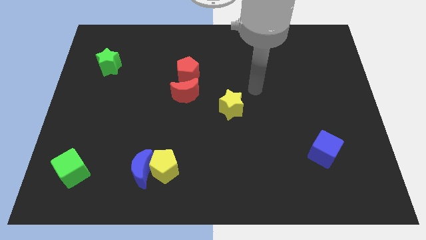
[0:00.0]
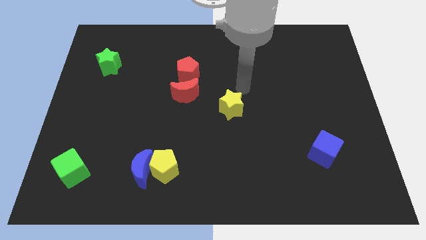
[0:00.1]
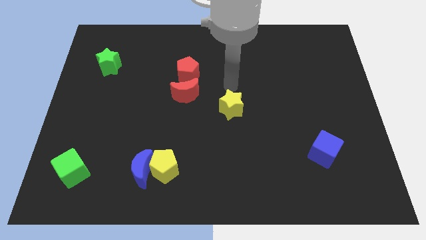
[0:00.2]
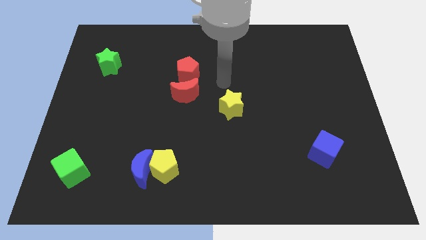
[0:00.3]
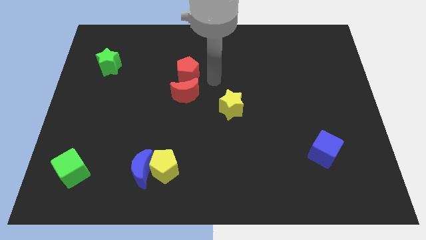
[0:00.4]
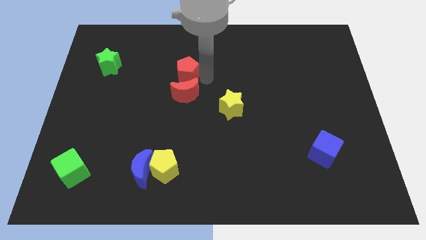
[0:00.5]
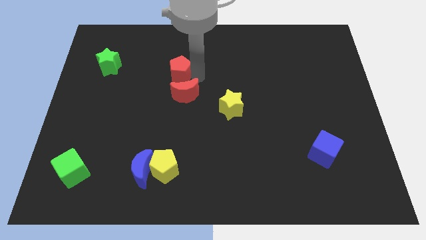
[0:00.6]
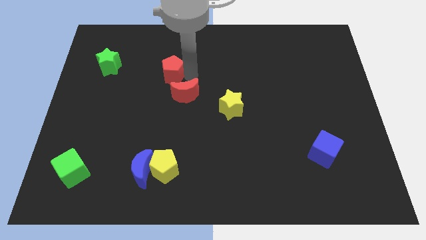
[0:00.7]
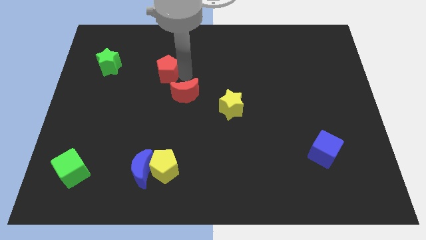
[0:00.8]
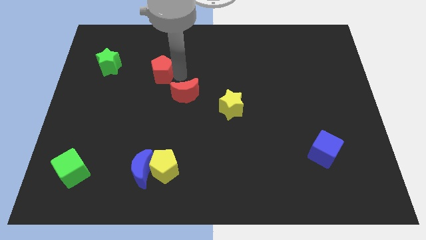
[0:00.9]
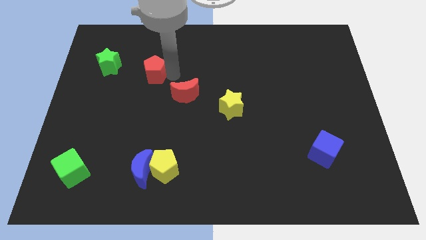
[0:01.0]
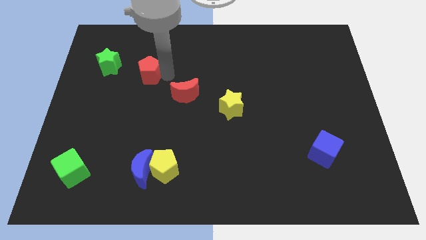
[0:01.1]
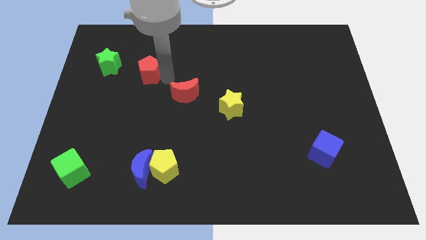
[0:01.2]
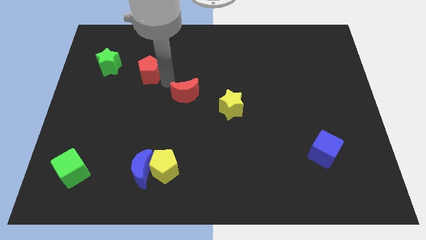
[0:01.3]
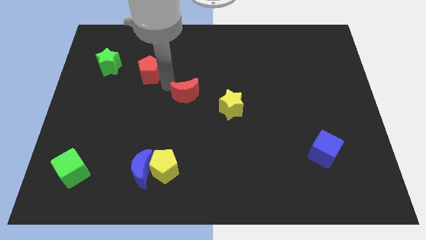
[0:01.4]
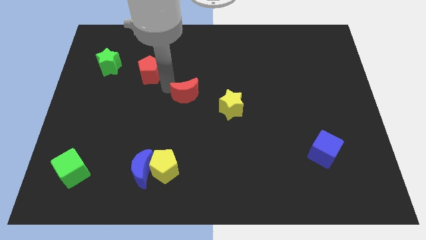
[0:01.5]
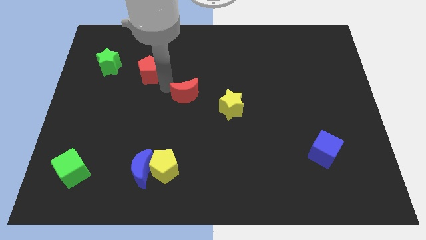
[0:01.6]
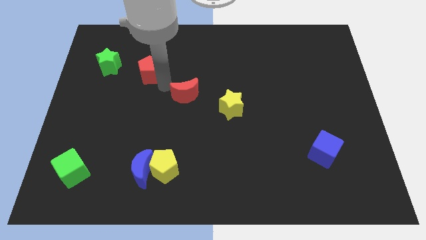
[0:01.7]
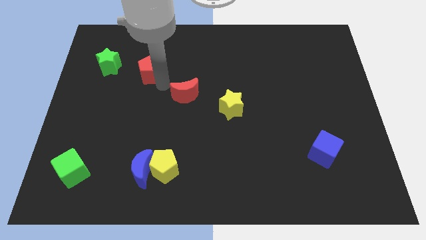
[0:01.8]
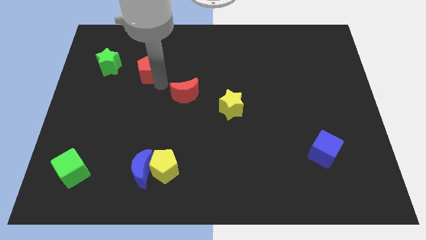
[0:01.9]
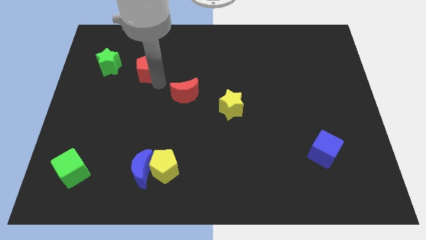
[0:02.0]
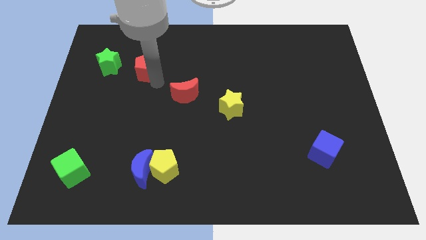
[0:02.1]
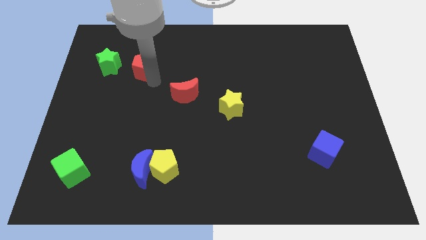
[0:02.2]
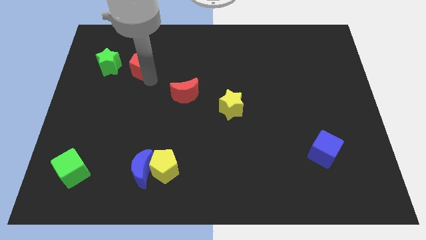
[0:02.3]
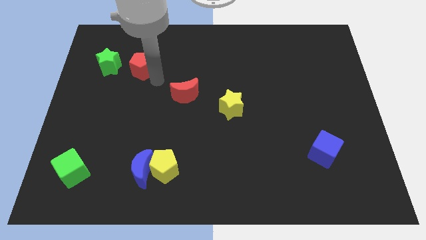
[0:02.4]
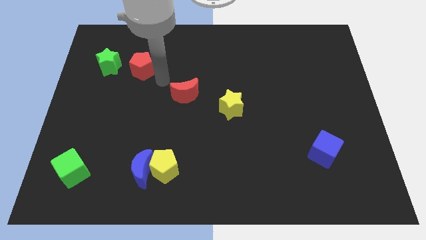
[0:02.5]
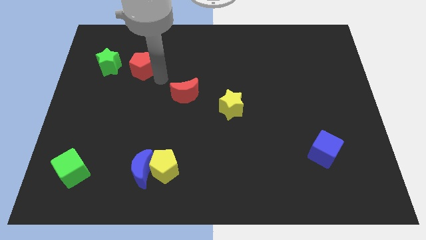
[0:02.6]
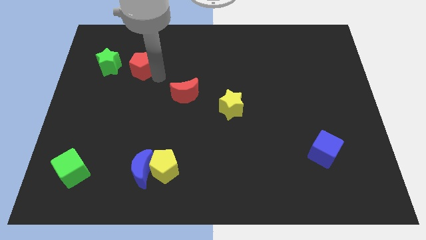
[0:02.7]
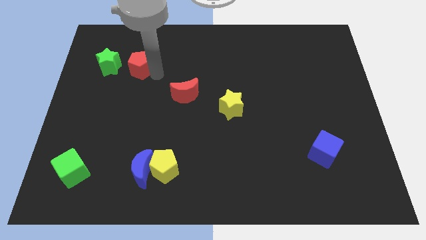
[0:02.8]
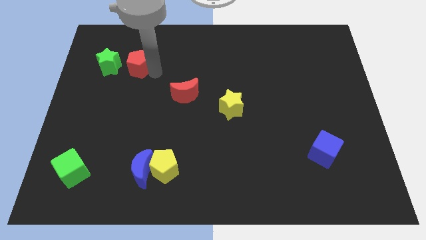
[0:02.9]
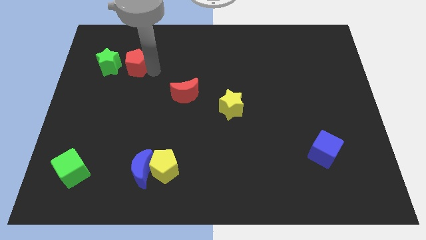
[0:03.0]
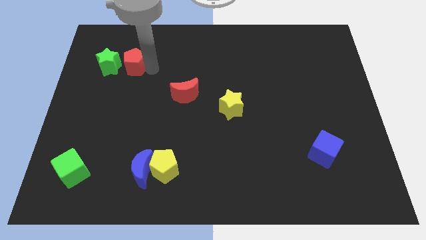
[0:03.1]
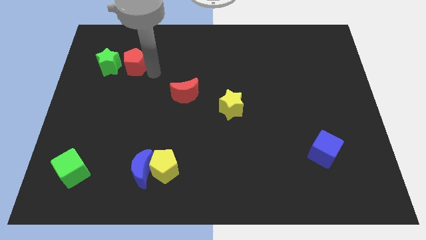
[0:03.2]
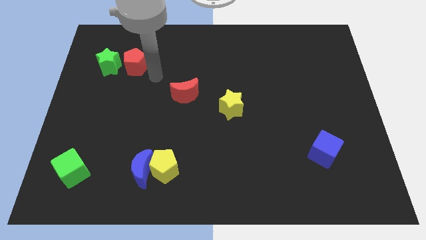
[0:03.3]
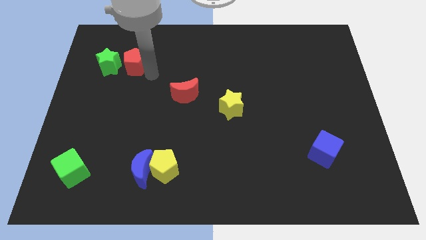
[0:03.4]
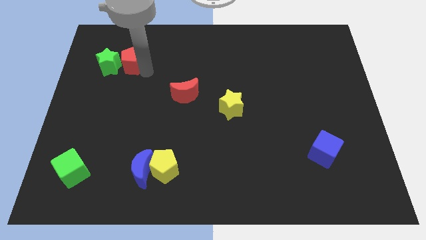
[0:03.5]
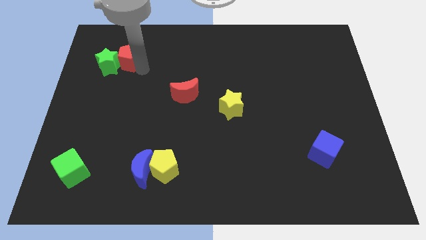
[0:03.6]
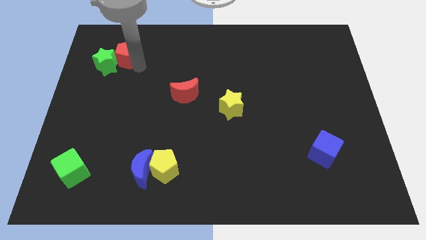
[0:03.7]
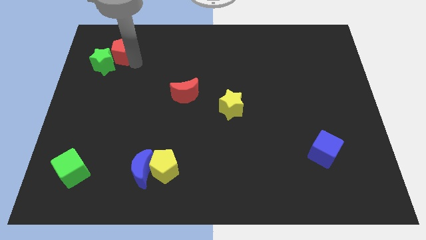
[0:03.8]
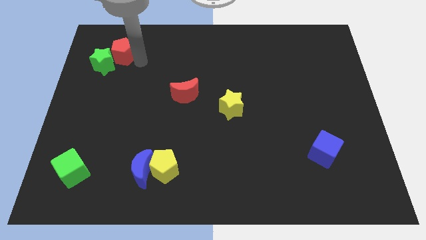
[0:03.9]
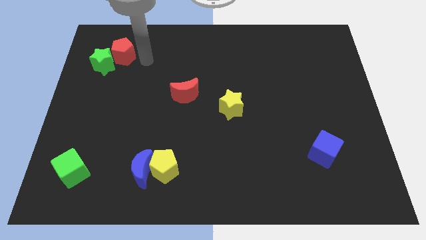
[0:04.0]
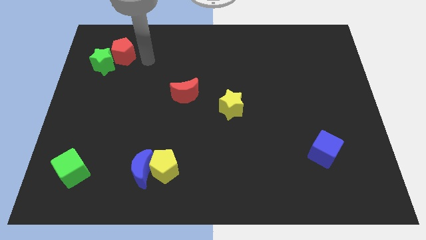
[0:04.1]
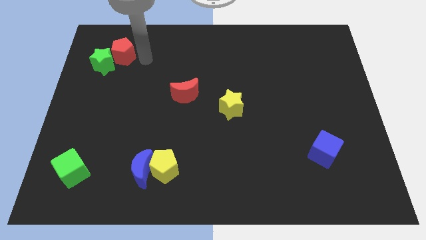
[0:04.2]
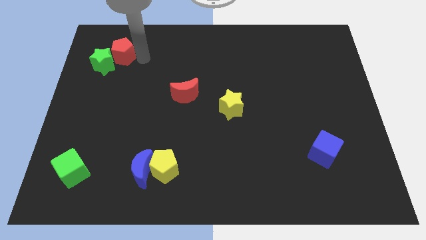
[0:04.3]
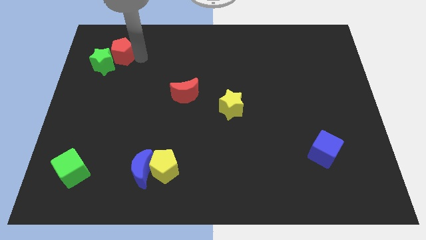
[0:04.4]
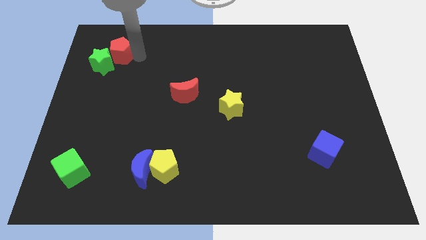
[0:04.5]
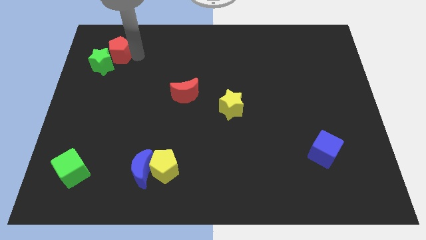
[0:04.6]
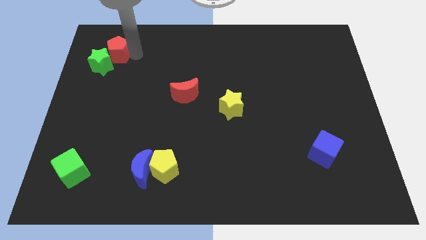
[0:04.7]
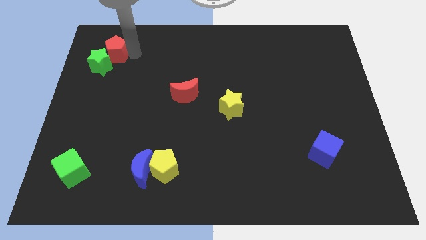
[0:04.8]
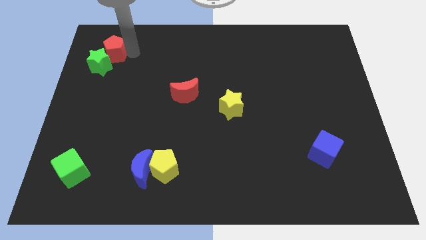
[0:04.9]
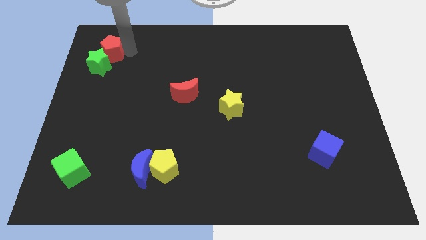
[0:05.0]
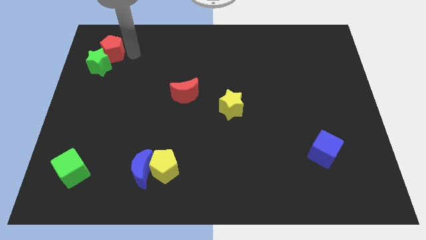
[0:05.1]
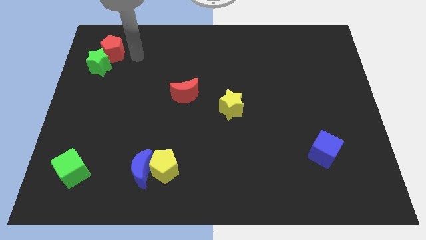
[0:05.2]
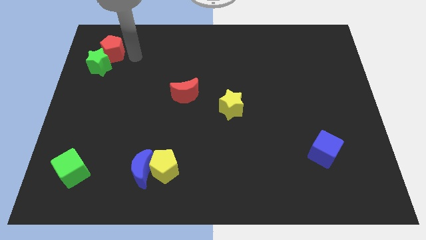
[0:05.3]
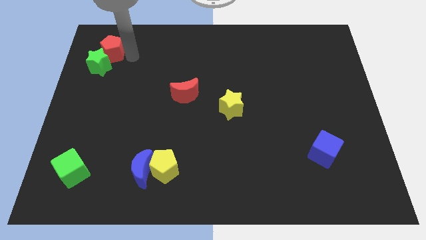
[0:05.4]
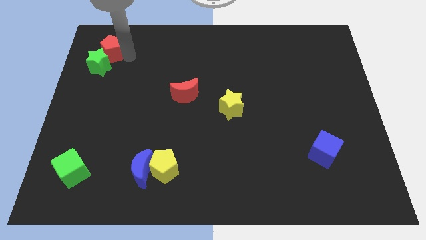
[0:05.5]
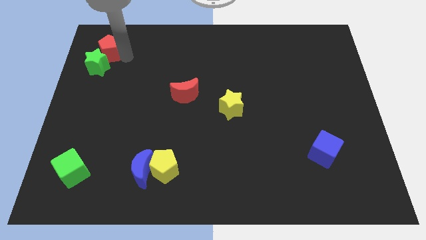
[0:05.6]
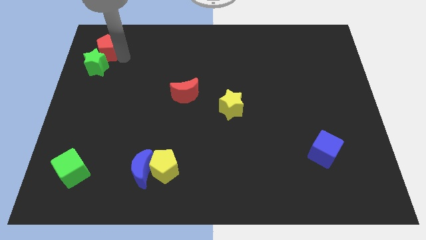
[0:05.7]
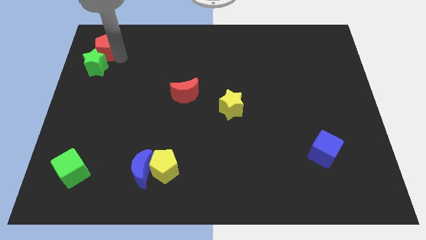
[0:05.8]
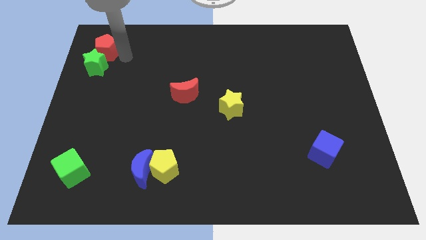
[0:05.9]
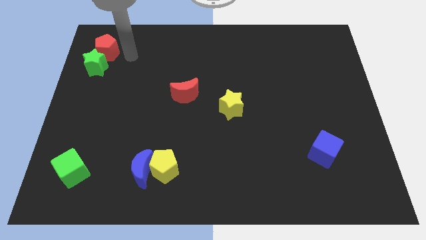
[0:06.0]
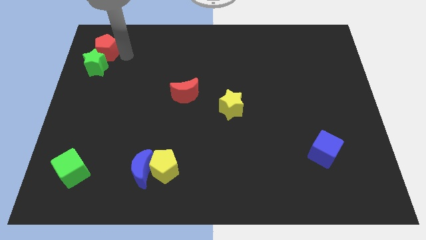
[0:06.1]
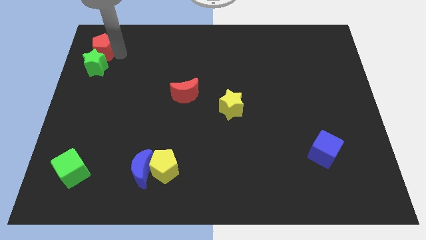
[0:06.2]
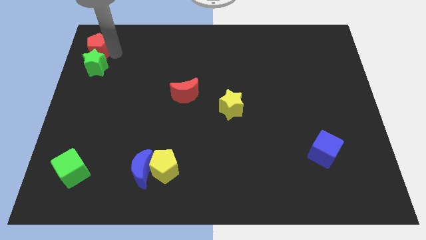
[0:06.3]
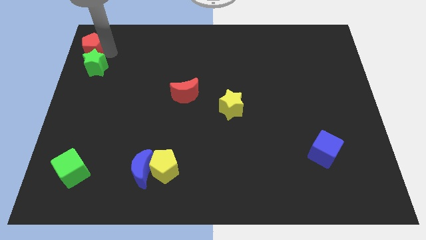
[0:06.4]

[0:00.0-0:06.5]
put the red pentagon to the top left
